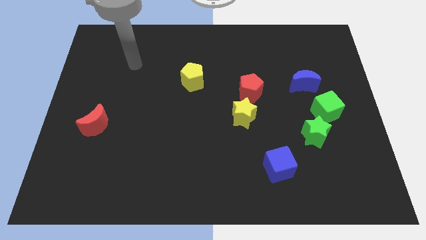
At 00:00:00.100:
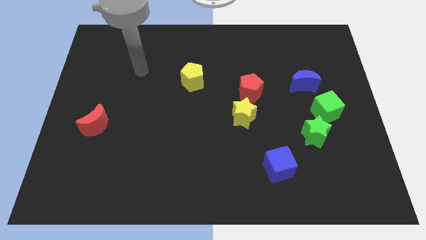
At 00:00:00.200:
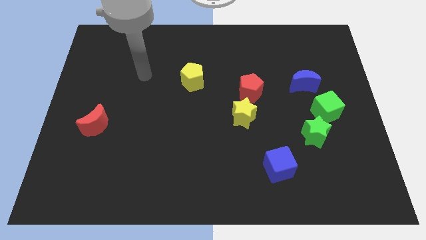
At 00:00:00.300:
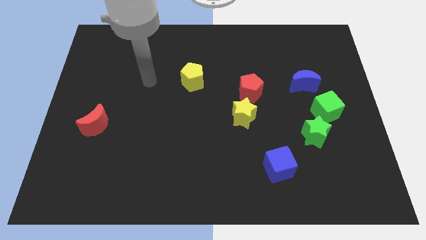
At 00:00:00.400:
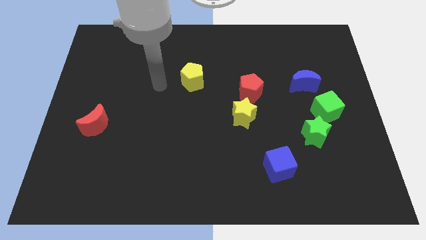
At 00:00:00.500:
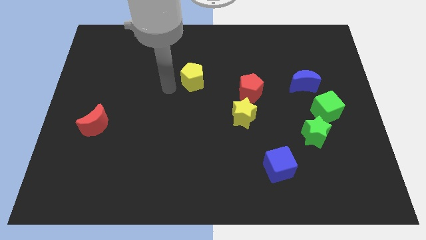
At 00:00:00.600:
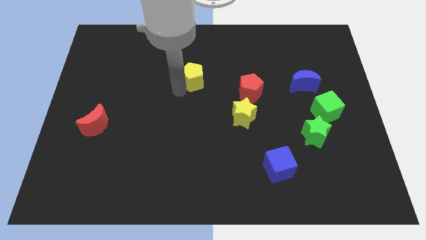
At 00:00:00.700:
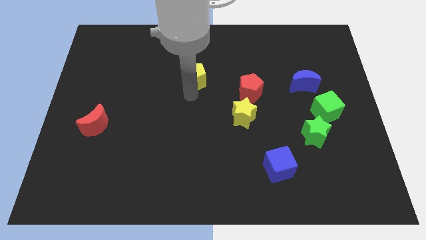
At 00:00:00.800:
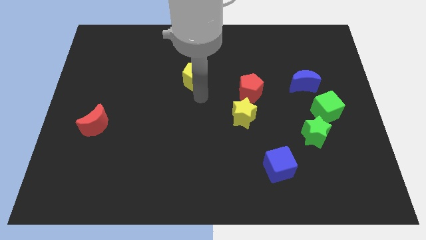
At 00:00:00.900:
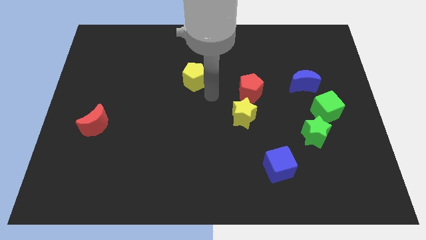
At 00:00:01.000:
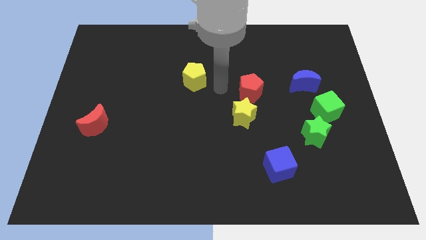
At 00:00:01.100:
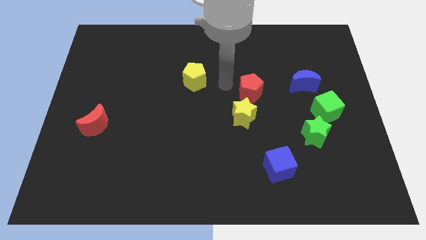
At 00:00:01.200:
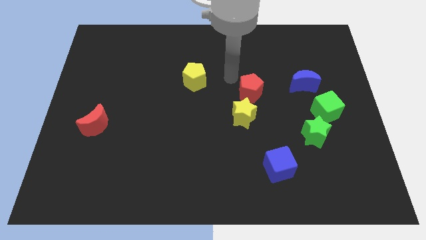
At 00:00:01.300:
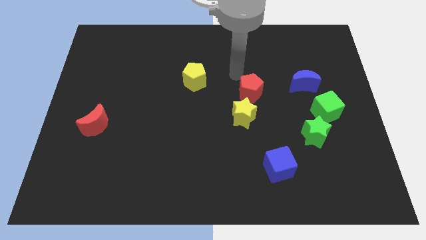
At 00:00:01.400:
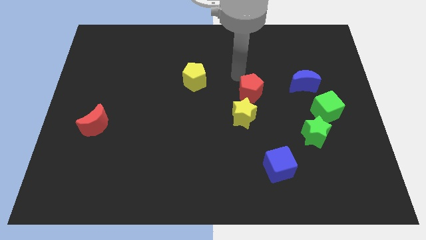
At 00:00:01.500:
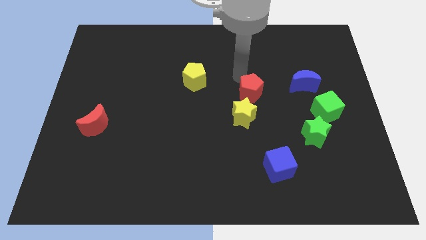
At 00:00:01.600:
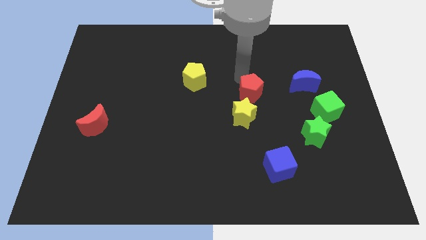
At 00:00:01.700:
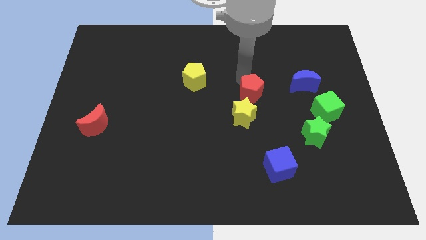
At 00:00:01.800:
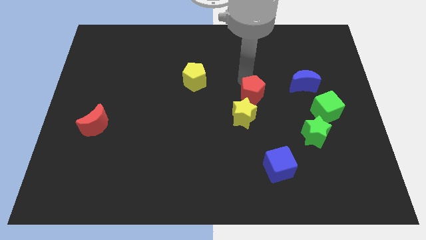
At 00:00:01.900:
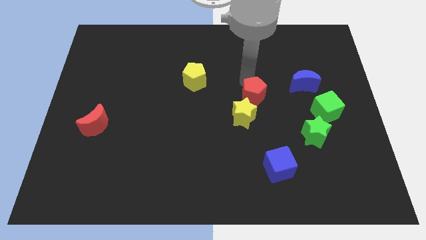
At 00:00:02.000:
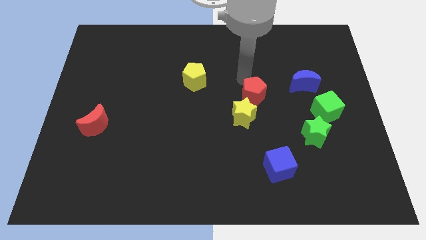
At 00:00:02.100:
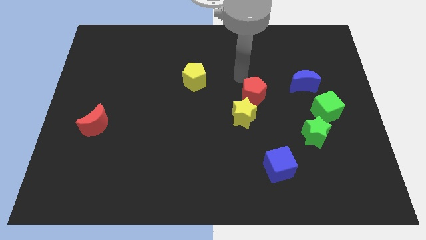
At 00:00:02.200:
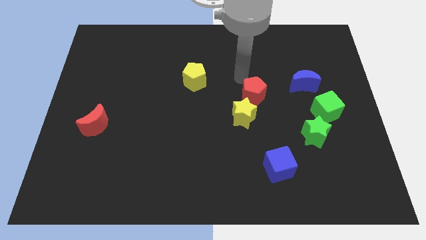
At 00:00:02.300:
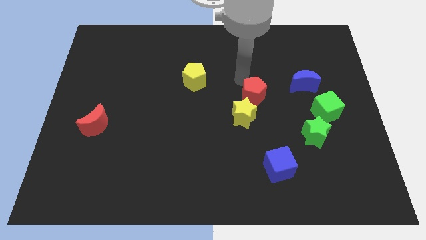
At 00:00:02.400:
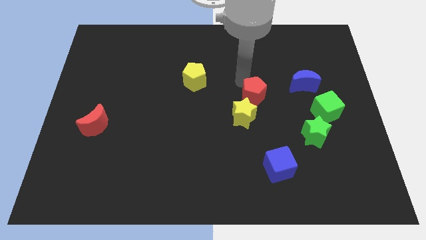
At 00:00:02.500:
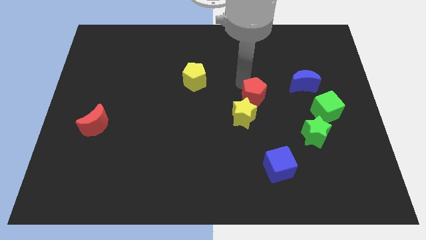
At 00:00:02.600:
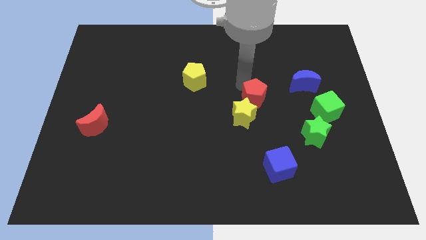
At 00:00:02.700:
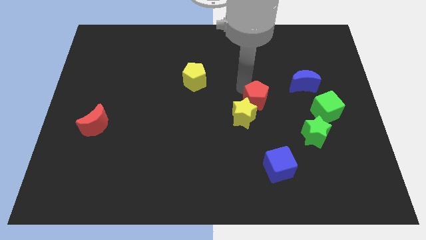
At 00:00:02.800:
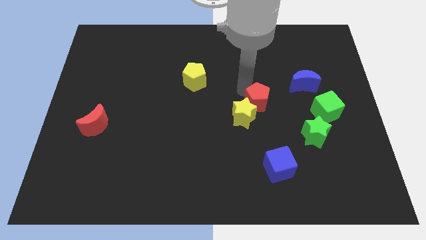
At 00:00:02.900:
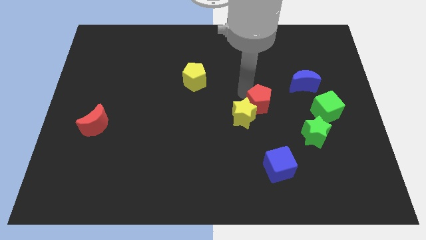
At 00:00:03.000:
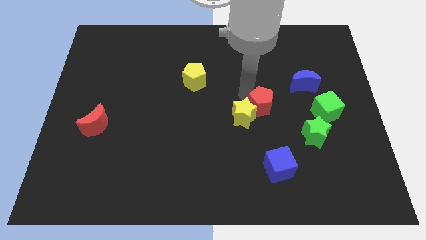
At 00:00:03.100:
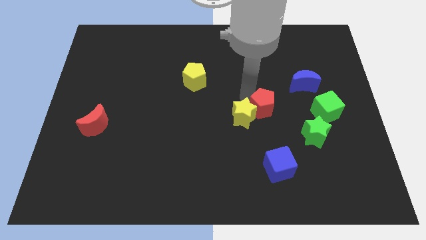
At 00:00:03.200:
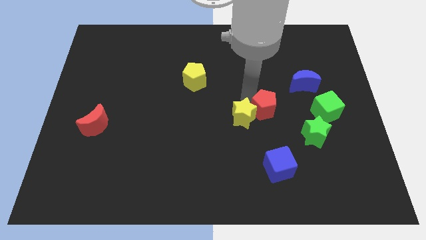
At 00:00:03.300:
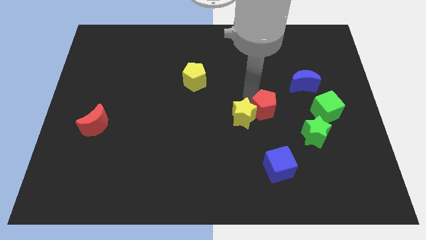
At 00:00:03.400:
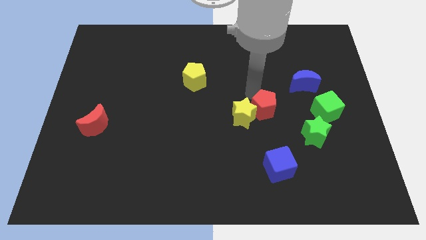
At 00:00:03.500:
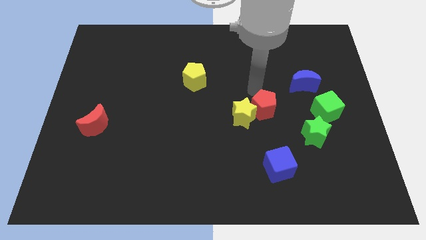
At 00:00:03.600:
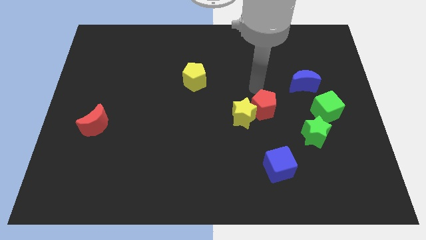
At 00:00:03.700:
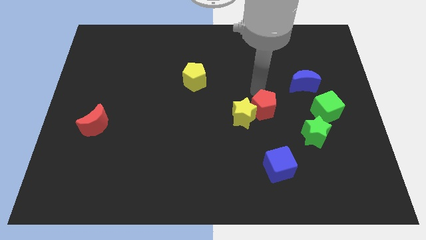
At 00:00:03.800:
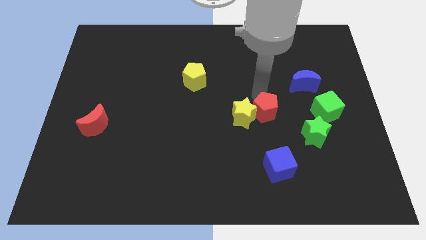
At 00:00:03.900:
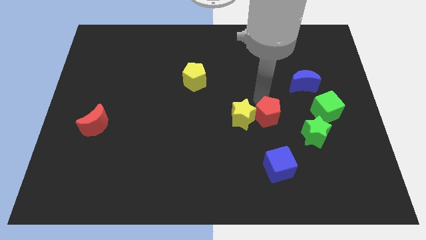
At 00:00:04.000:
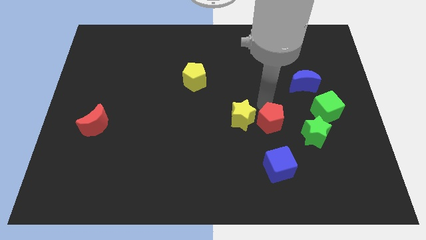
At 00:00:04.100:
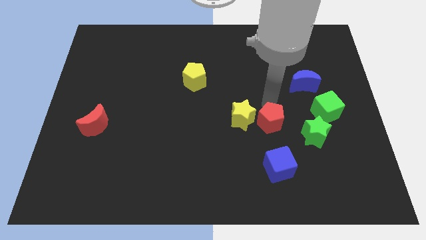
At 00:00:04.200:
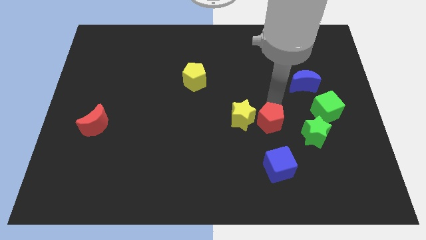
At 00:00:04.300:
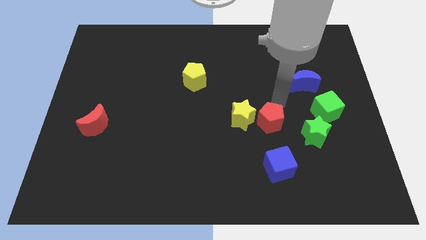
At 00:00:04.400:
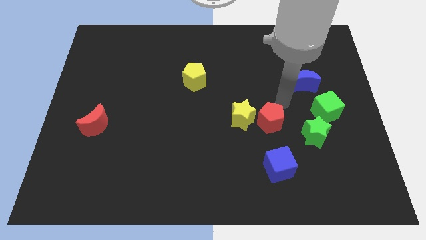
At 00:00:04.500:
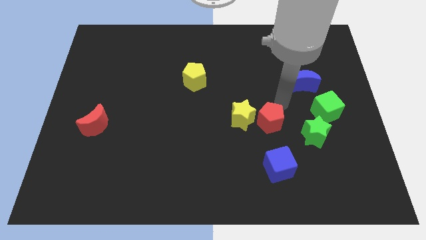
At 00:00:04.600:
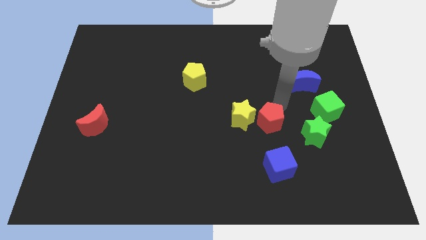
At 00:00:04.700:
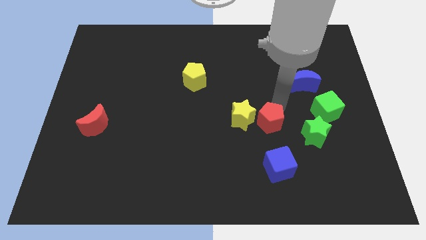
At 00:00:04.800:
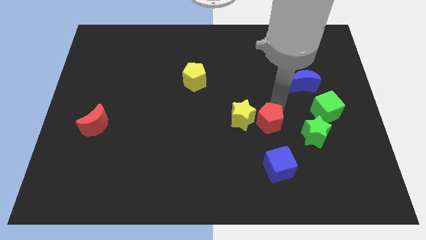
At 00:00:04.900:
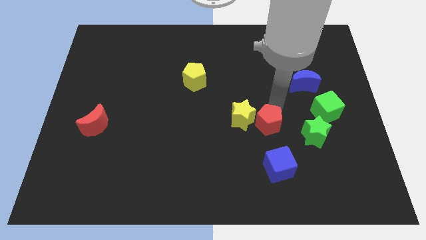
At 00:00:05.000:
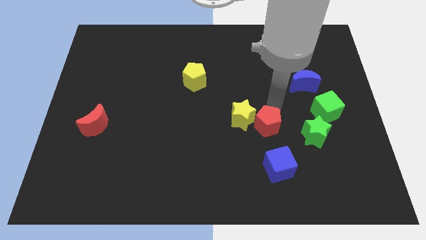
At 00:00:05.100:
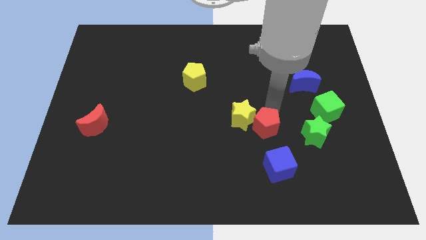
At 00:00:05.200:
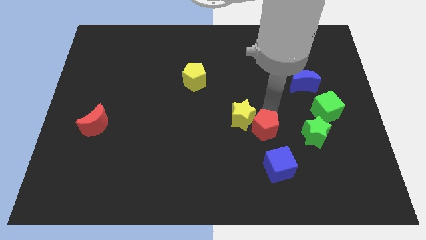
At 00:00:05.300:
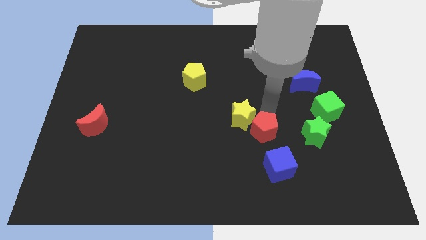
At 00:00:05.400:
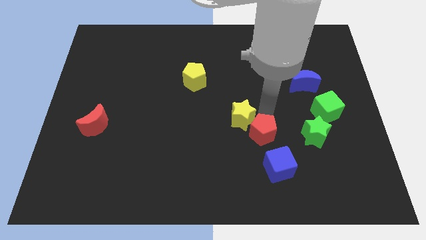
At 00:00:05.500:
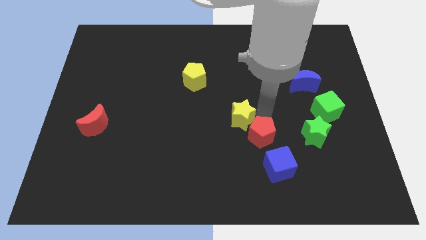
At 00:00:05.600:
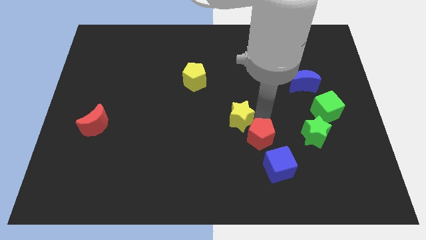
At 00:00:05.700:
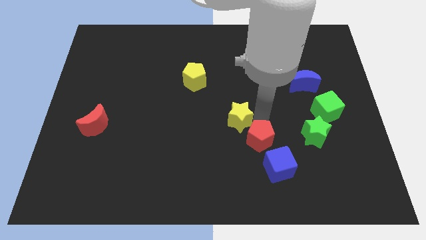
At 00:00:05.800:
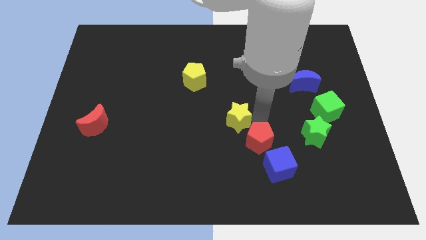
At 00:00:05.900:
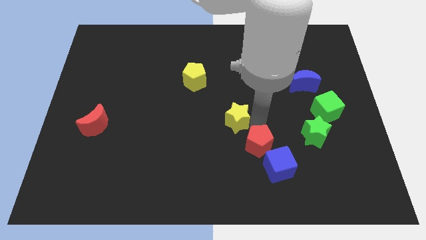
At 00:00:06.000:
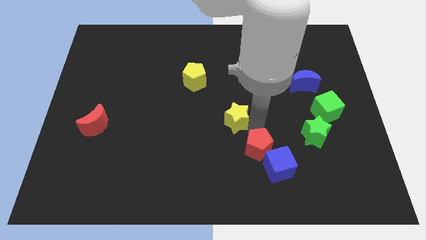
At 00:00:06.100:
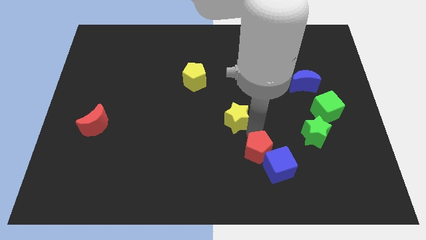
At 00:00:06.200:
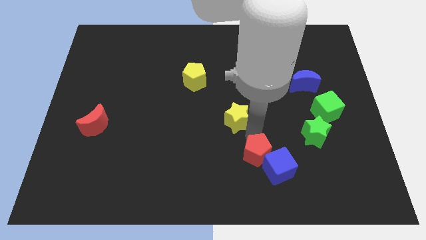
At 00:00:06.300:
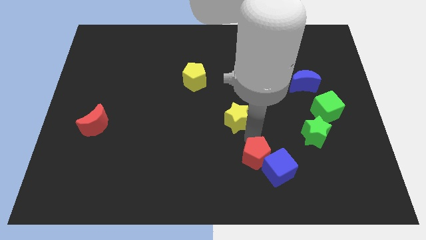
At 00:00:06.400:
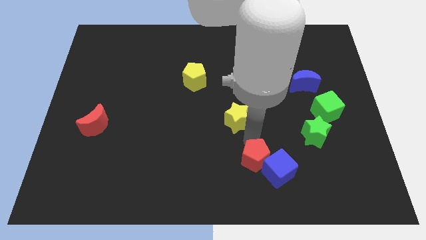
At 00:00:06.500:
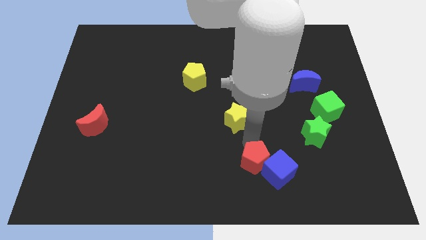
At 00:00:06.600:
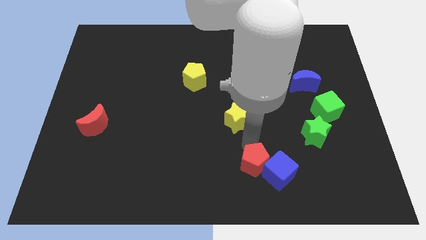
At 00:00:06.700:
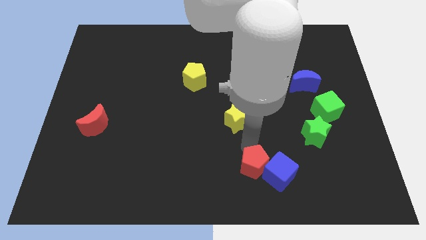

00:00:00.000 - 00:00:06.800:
push the red pentagon to the bottom side
